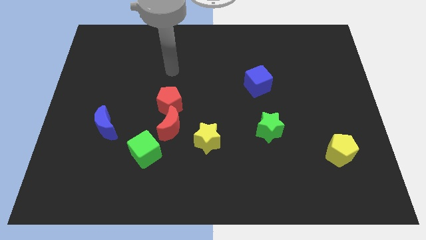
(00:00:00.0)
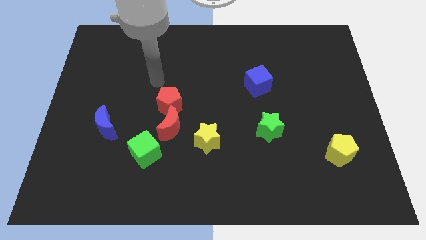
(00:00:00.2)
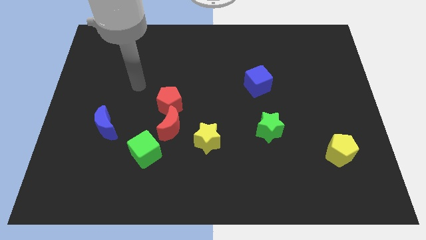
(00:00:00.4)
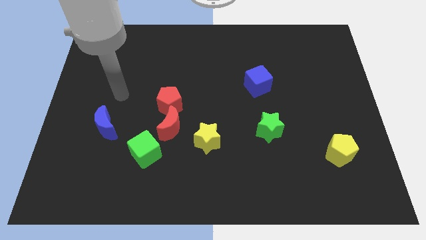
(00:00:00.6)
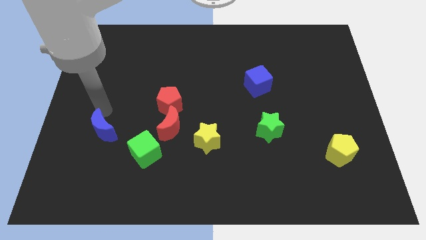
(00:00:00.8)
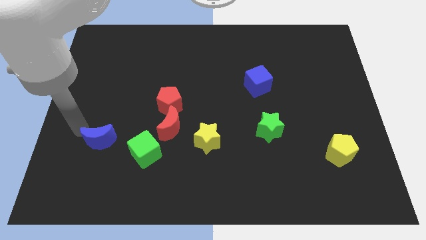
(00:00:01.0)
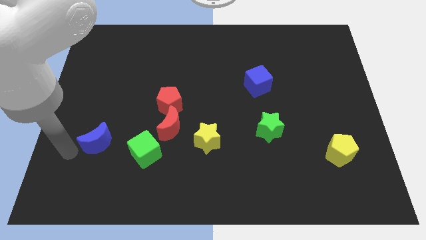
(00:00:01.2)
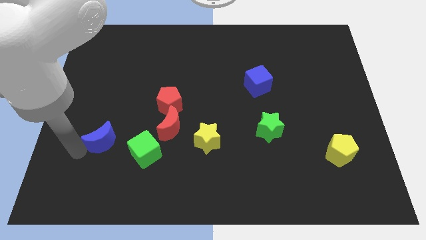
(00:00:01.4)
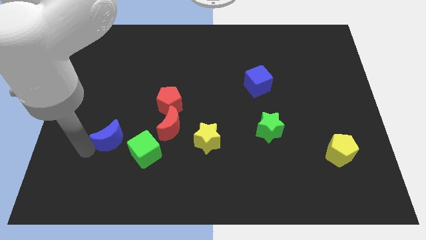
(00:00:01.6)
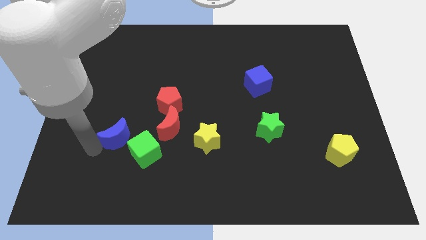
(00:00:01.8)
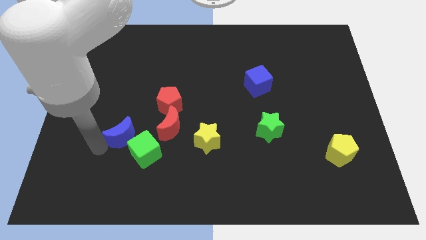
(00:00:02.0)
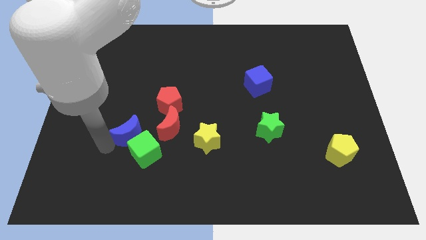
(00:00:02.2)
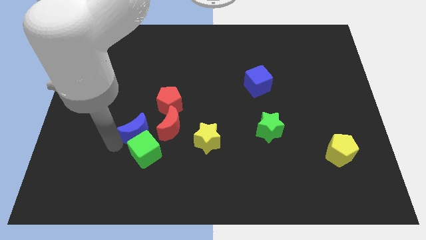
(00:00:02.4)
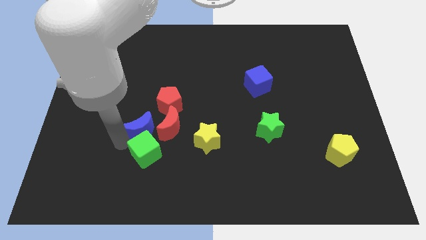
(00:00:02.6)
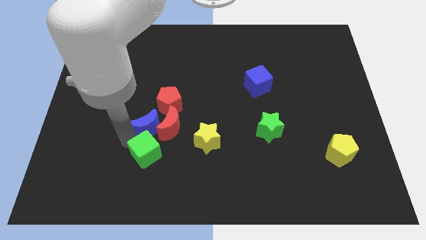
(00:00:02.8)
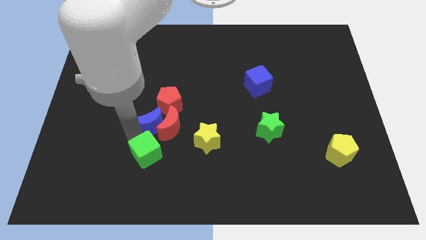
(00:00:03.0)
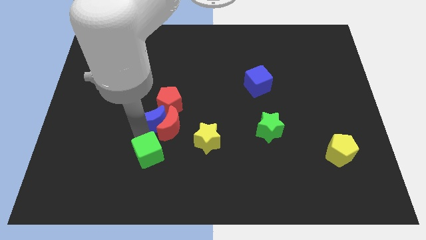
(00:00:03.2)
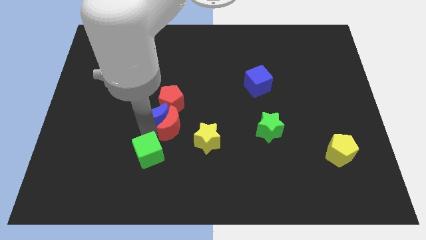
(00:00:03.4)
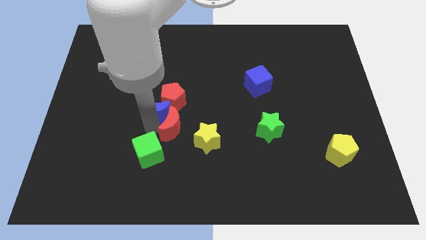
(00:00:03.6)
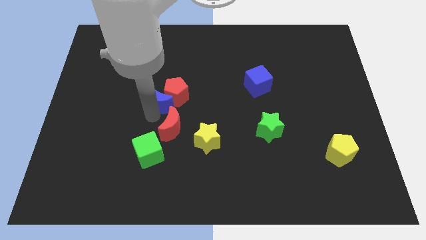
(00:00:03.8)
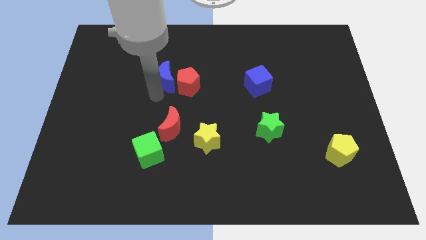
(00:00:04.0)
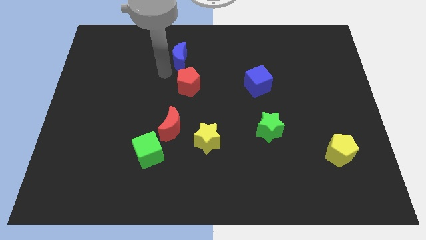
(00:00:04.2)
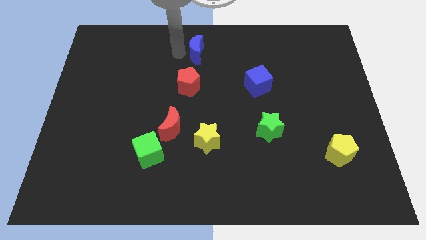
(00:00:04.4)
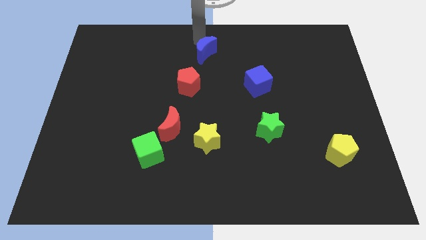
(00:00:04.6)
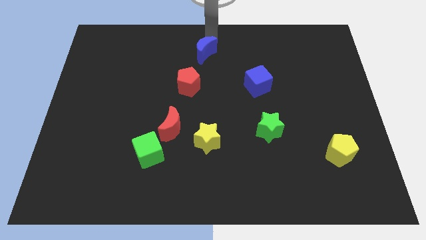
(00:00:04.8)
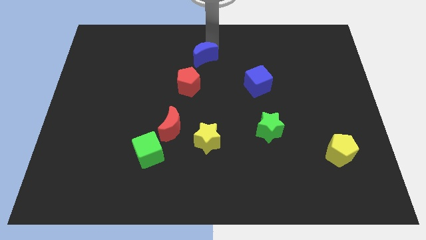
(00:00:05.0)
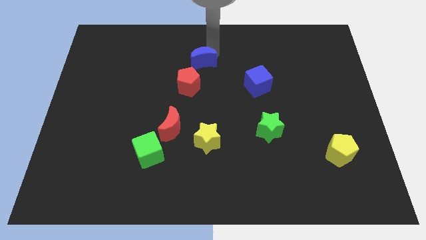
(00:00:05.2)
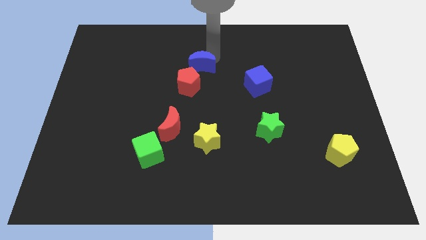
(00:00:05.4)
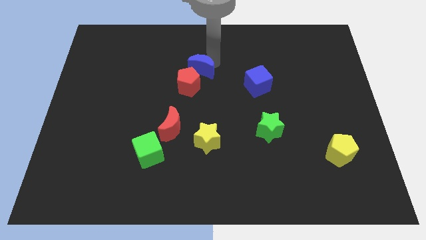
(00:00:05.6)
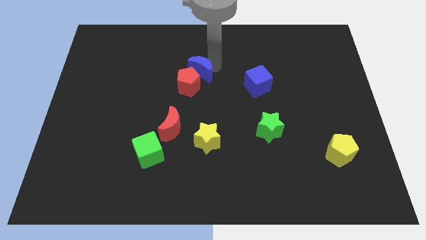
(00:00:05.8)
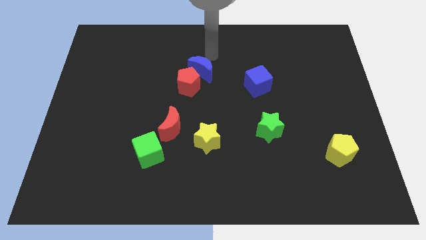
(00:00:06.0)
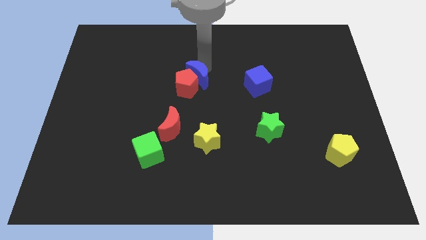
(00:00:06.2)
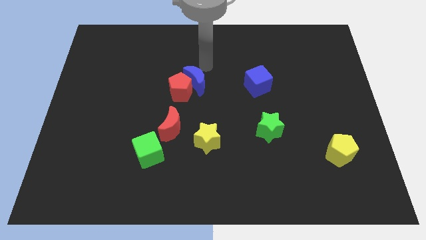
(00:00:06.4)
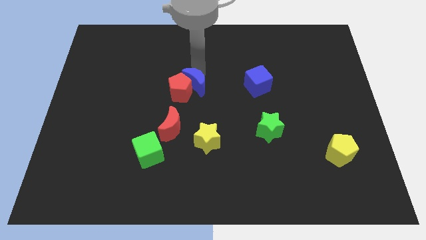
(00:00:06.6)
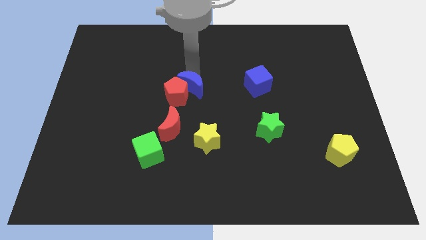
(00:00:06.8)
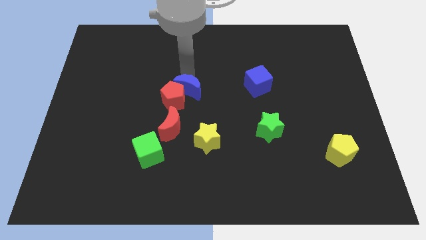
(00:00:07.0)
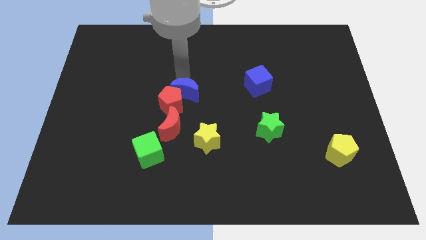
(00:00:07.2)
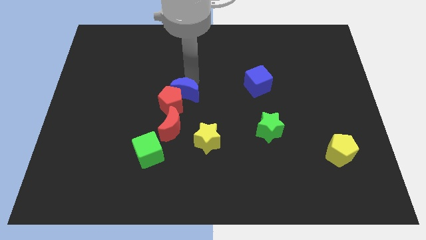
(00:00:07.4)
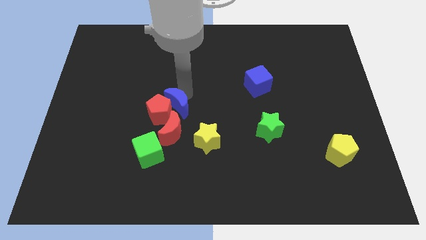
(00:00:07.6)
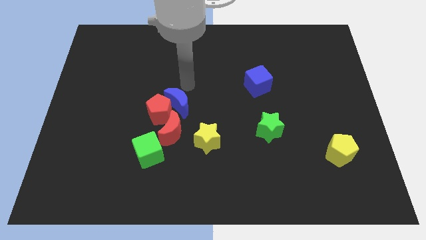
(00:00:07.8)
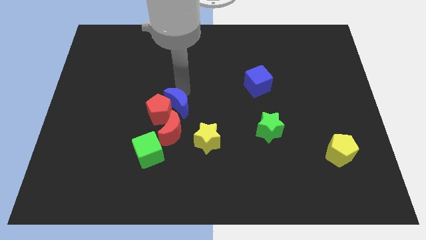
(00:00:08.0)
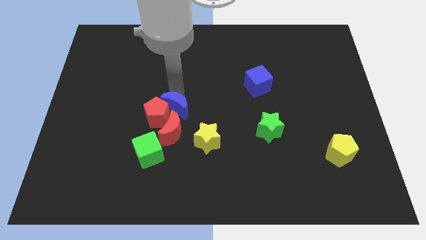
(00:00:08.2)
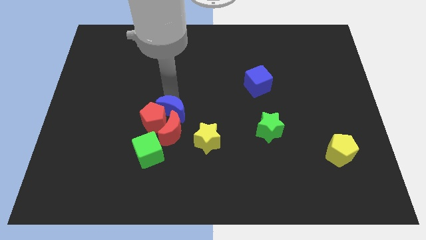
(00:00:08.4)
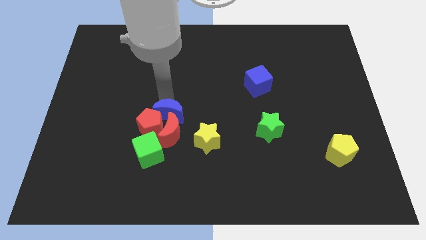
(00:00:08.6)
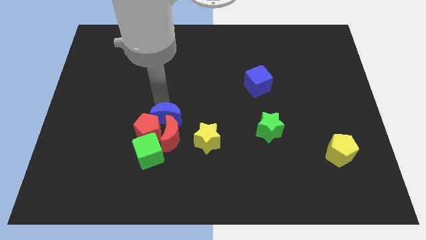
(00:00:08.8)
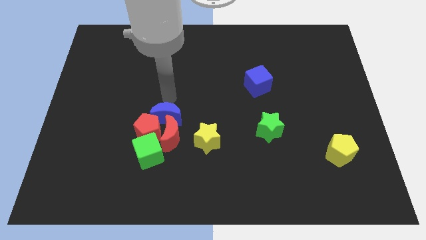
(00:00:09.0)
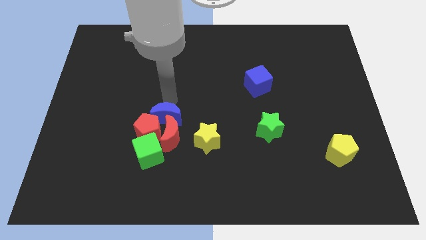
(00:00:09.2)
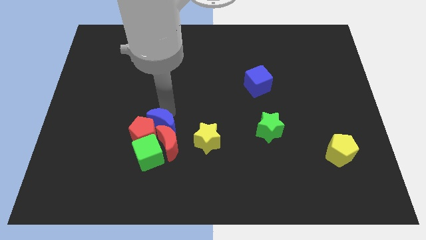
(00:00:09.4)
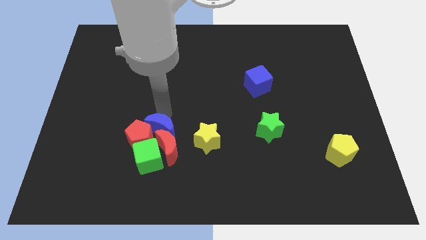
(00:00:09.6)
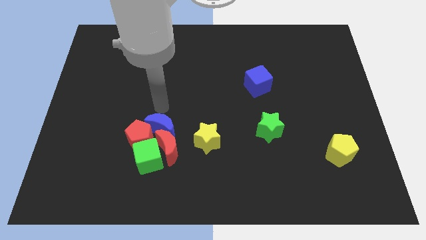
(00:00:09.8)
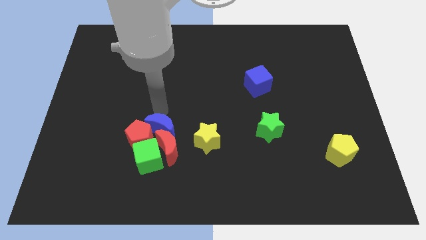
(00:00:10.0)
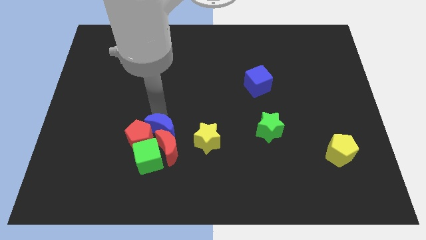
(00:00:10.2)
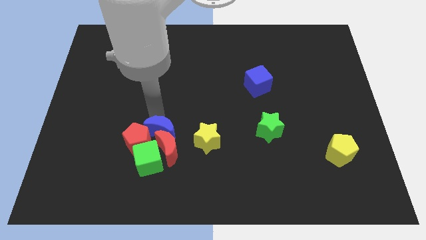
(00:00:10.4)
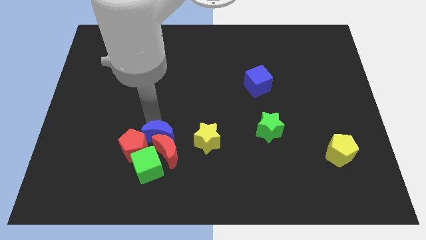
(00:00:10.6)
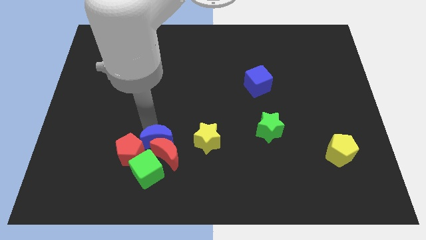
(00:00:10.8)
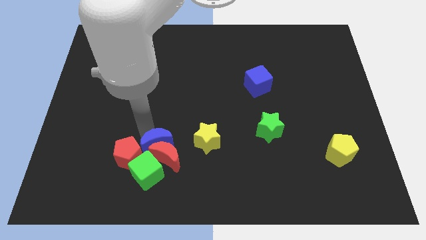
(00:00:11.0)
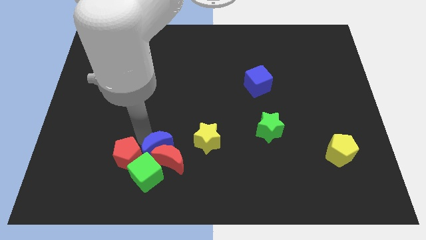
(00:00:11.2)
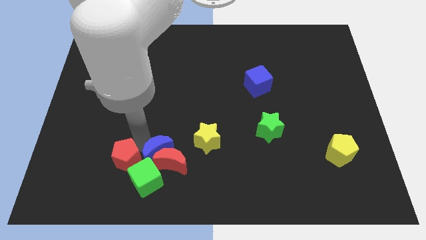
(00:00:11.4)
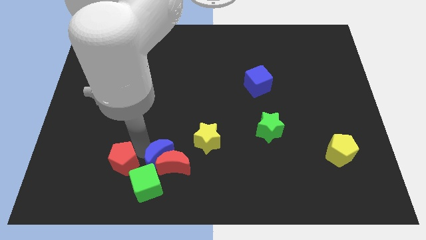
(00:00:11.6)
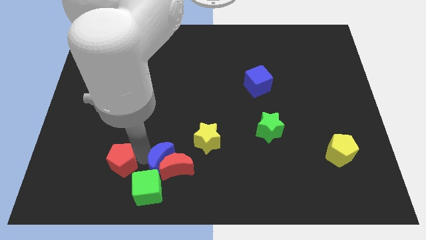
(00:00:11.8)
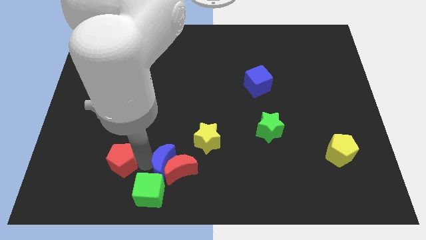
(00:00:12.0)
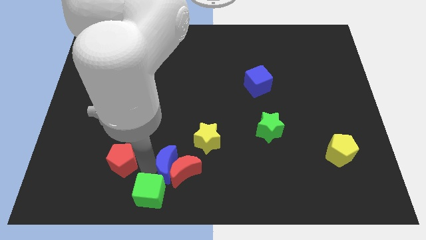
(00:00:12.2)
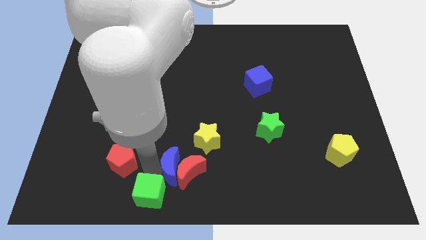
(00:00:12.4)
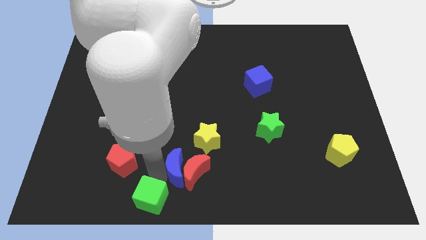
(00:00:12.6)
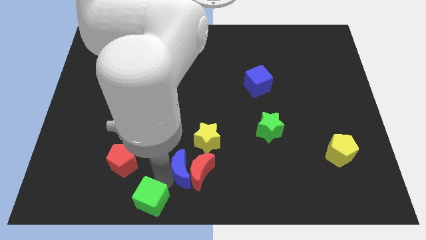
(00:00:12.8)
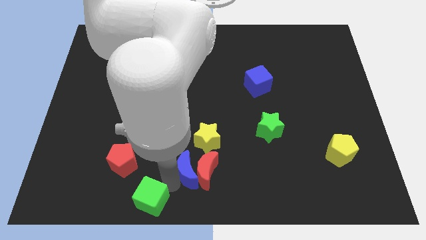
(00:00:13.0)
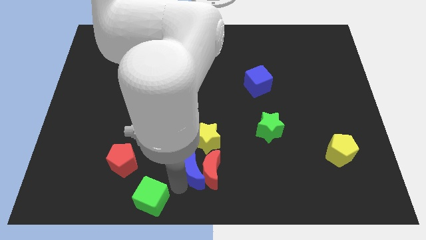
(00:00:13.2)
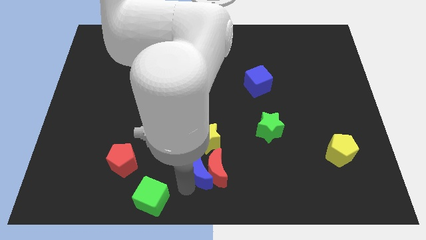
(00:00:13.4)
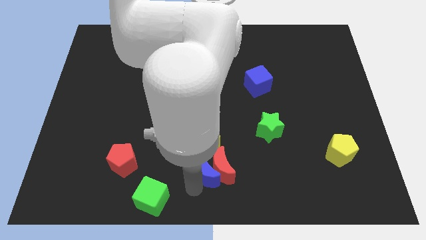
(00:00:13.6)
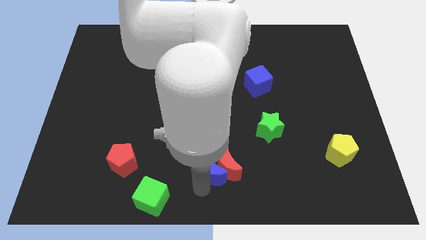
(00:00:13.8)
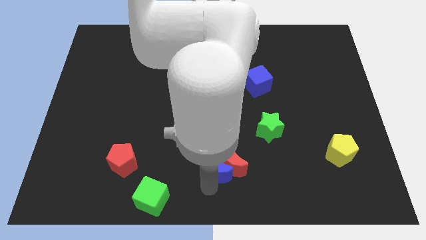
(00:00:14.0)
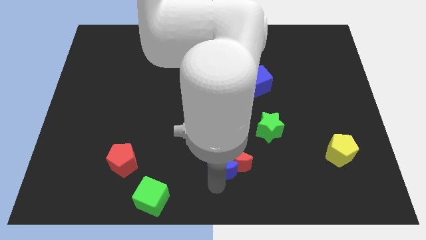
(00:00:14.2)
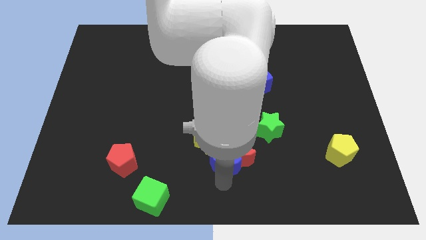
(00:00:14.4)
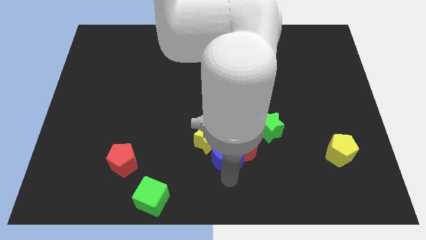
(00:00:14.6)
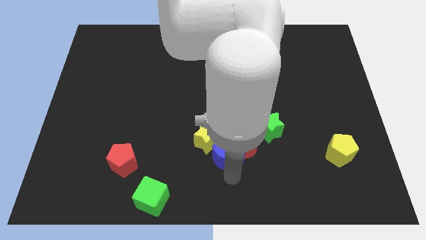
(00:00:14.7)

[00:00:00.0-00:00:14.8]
push the blue moon towards the yellow star
